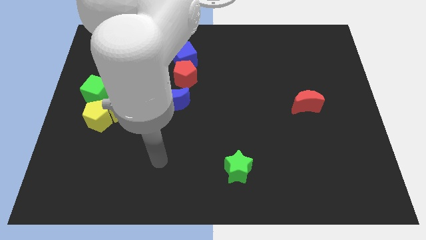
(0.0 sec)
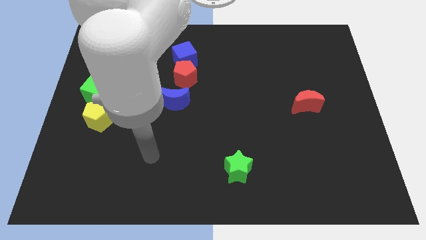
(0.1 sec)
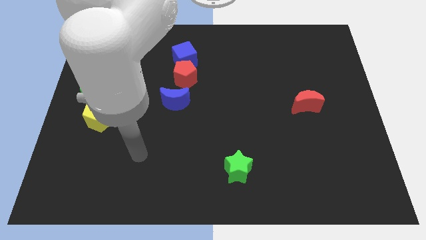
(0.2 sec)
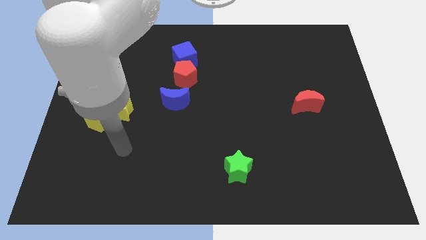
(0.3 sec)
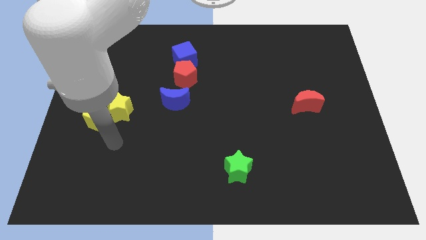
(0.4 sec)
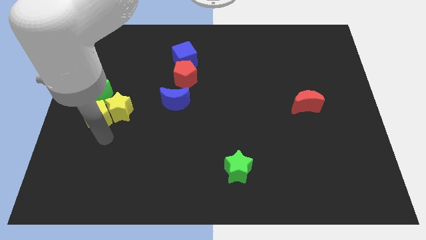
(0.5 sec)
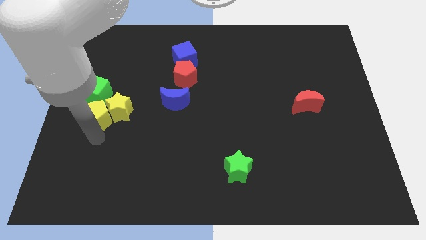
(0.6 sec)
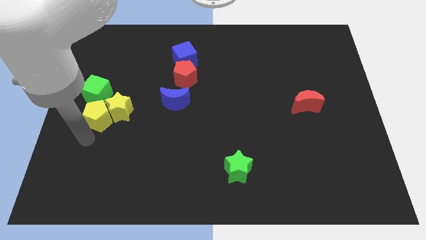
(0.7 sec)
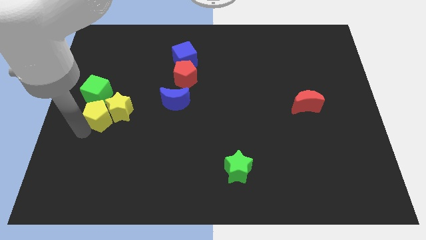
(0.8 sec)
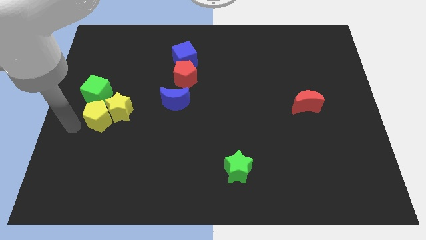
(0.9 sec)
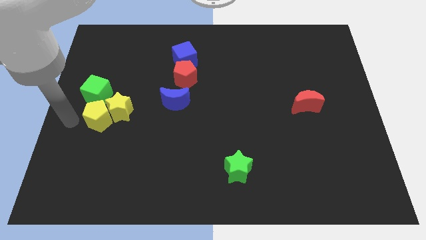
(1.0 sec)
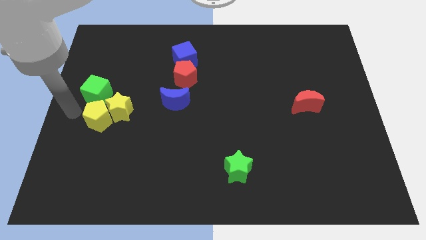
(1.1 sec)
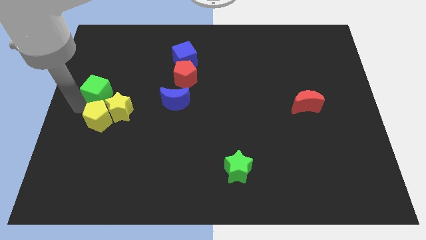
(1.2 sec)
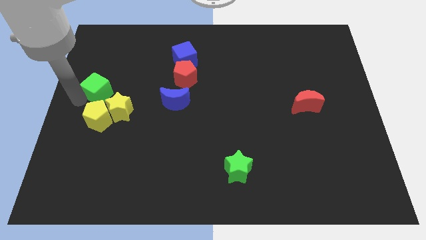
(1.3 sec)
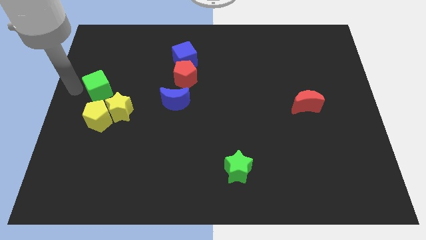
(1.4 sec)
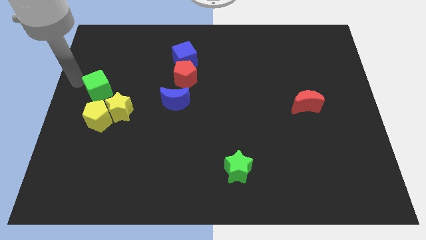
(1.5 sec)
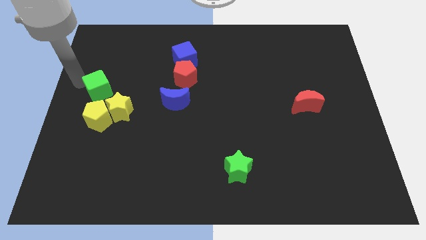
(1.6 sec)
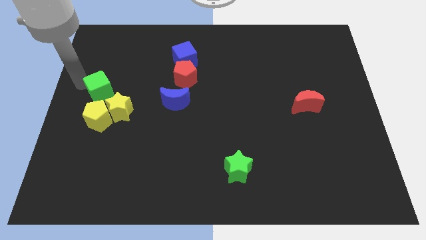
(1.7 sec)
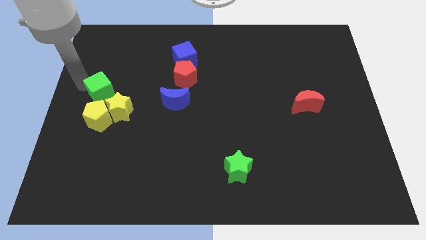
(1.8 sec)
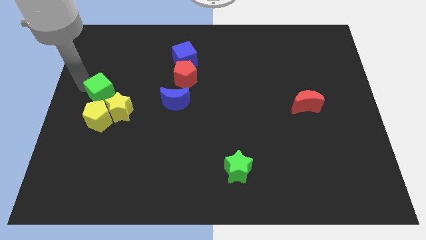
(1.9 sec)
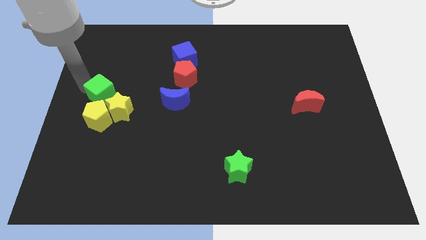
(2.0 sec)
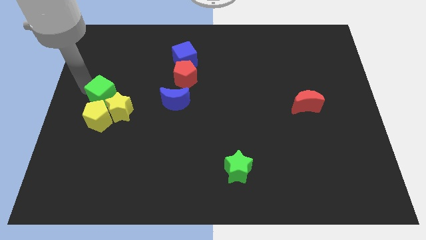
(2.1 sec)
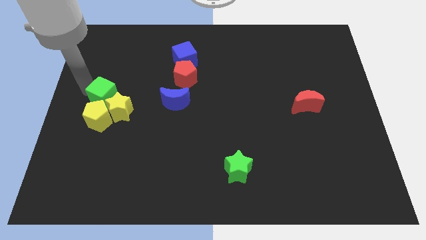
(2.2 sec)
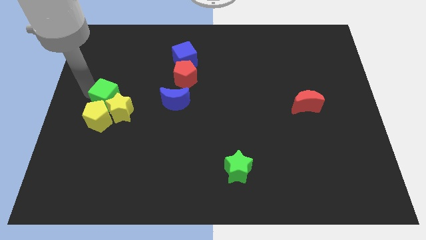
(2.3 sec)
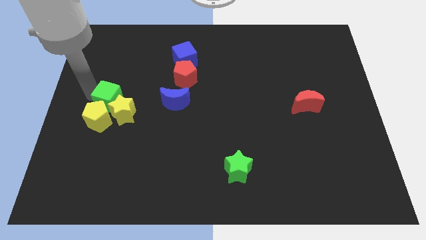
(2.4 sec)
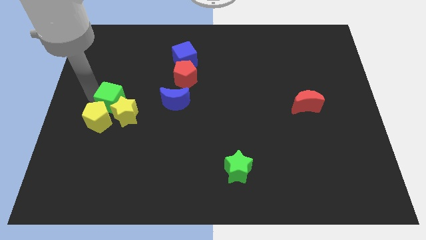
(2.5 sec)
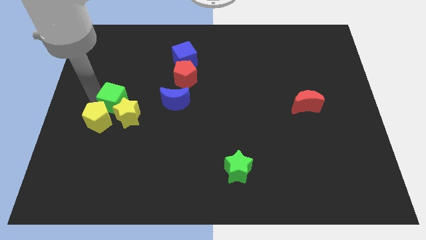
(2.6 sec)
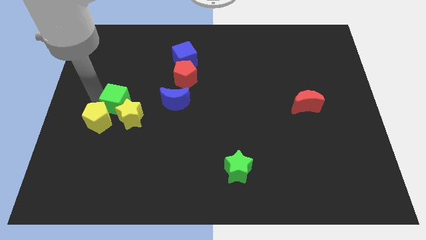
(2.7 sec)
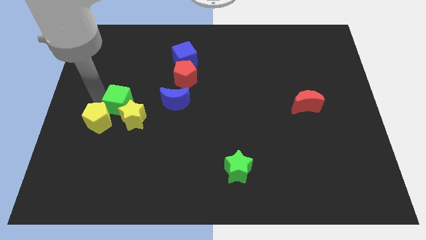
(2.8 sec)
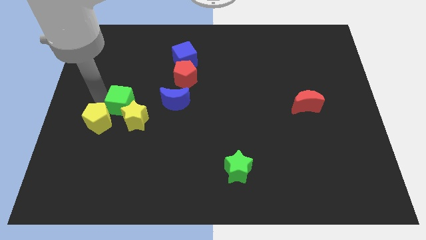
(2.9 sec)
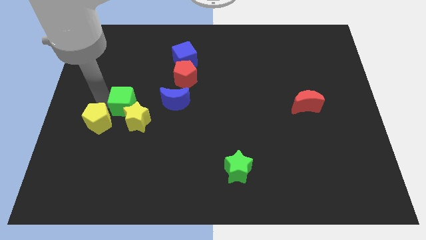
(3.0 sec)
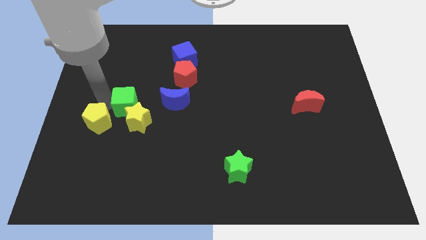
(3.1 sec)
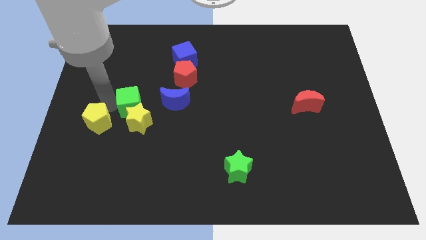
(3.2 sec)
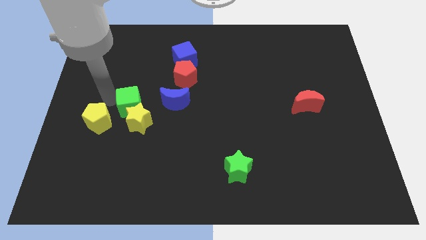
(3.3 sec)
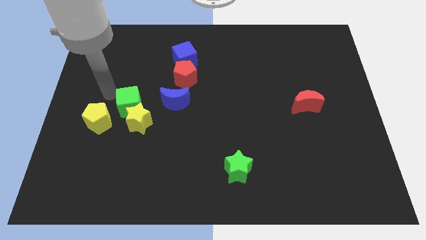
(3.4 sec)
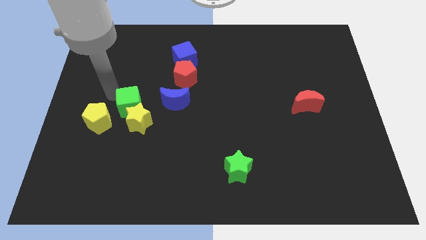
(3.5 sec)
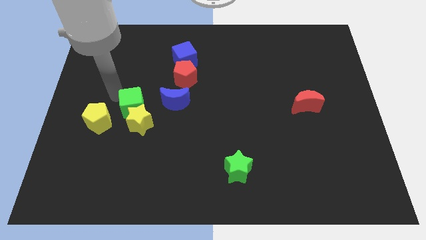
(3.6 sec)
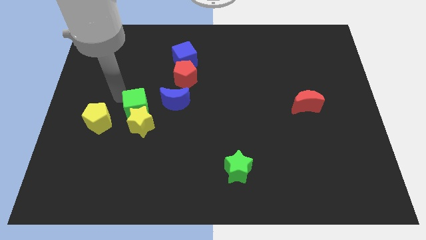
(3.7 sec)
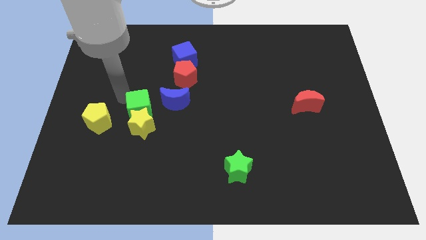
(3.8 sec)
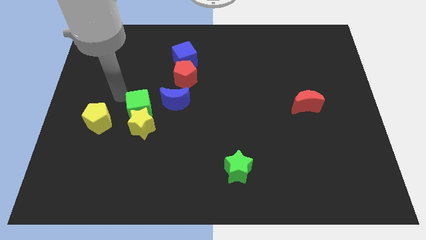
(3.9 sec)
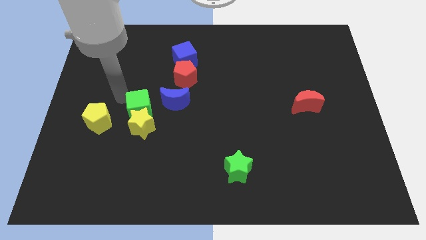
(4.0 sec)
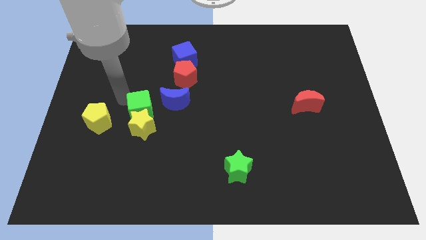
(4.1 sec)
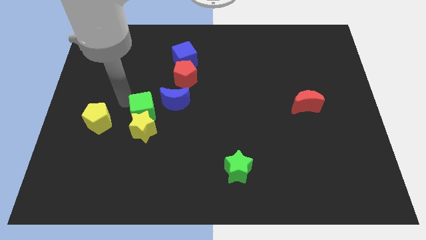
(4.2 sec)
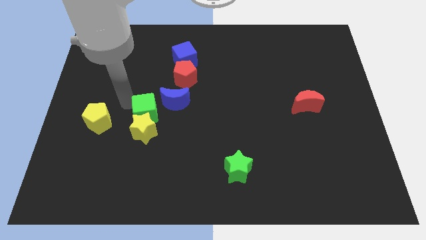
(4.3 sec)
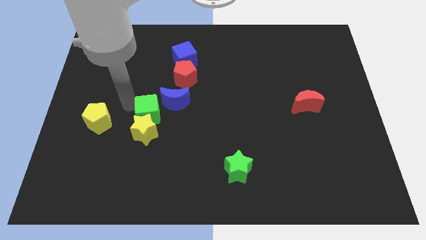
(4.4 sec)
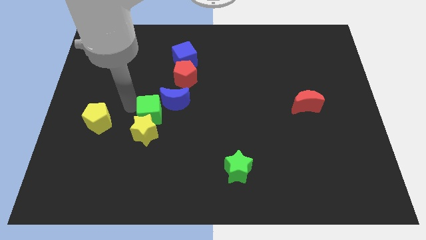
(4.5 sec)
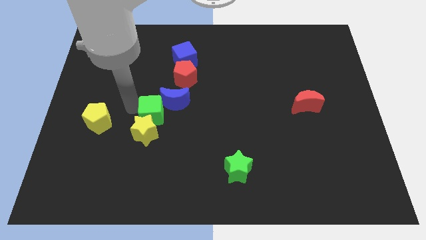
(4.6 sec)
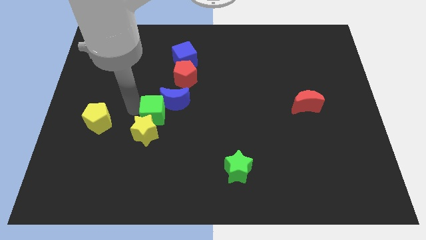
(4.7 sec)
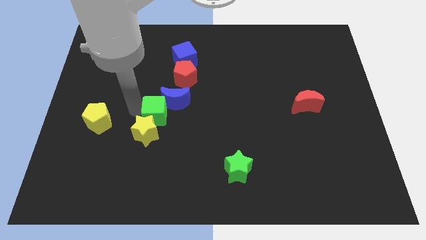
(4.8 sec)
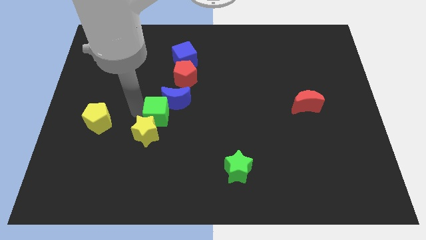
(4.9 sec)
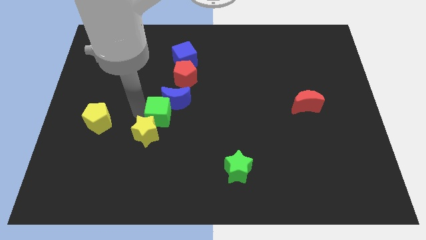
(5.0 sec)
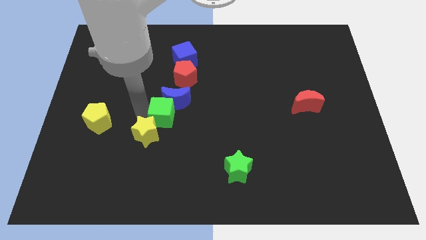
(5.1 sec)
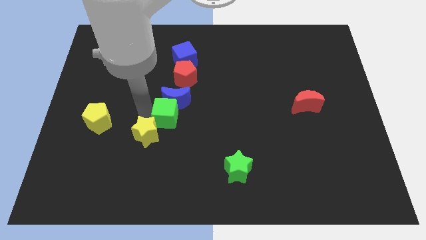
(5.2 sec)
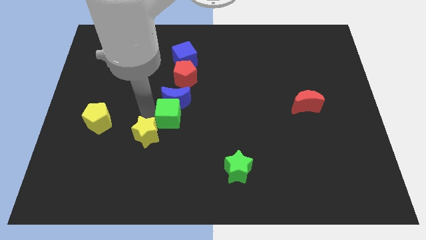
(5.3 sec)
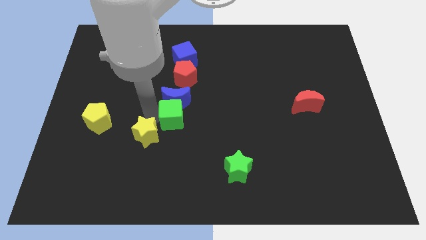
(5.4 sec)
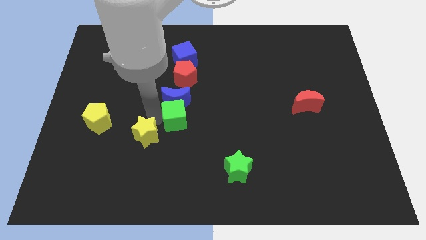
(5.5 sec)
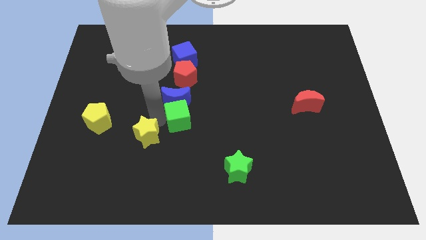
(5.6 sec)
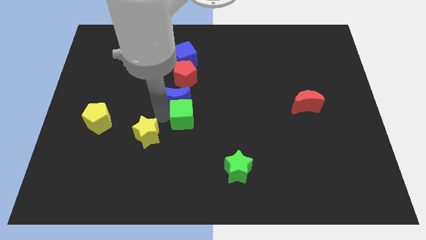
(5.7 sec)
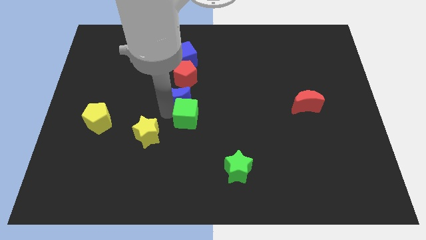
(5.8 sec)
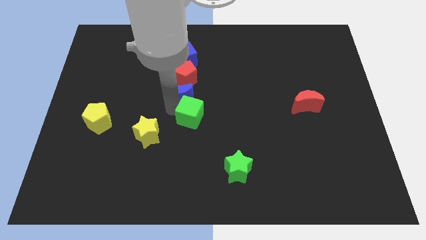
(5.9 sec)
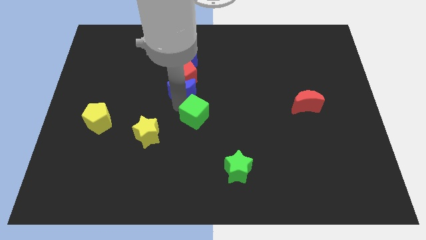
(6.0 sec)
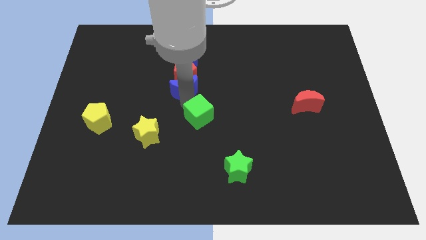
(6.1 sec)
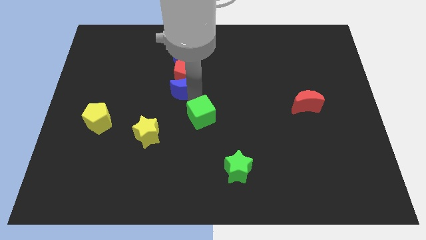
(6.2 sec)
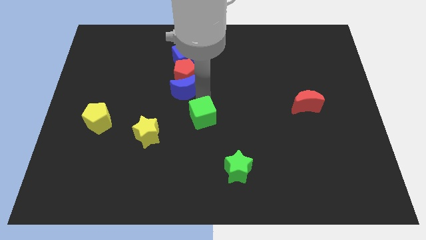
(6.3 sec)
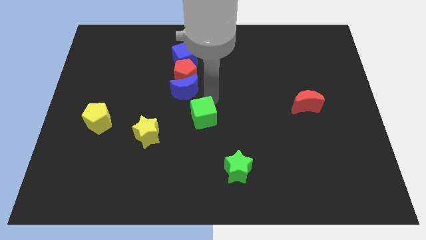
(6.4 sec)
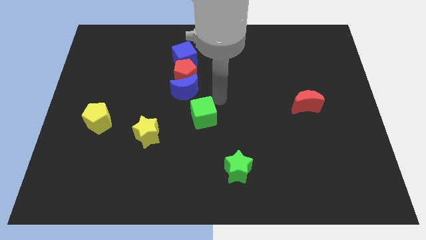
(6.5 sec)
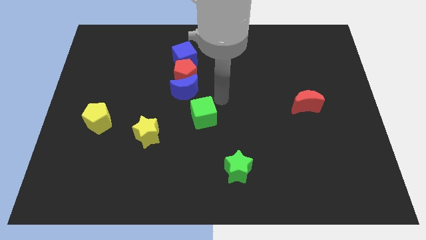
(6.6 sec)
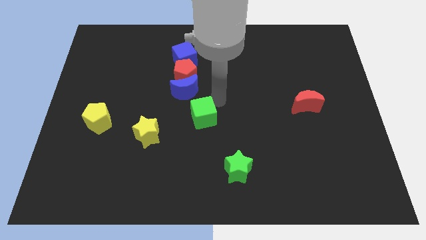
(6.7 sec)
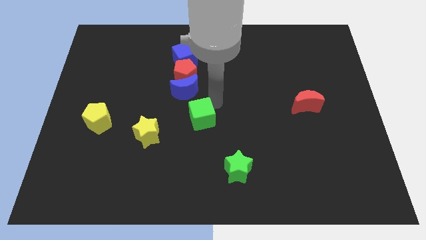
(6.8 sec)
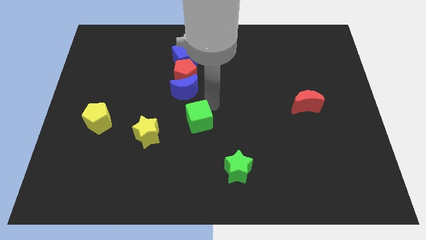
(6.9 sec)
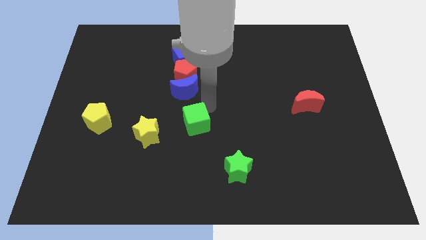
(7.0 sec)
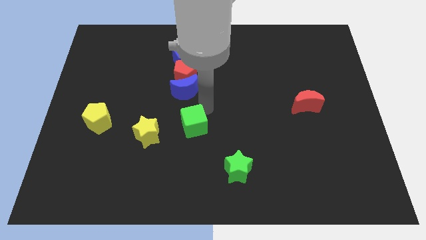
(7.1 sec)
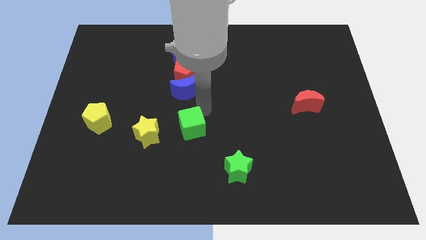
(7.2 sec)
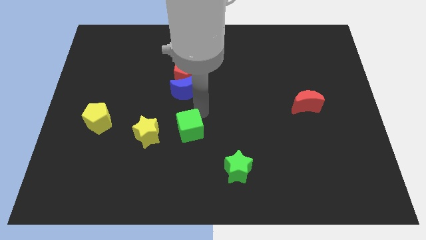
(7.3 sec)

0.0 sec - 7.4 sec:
slide the green cube down and then to the right

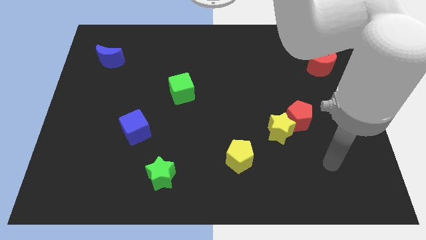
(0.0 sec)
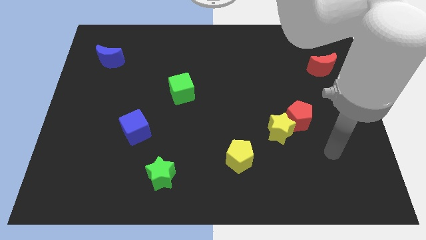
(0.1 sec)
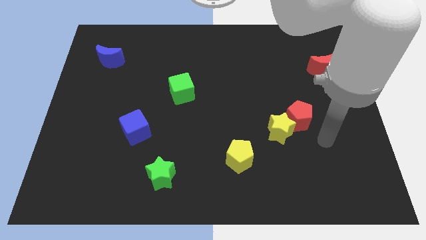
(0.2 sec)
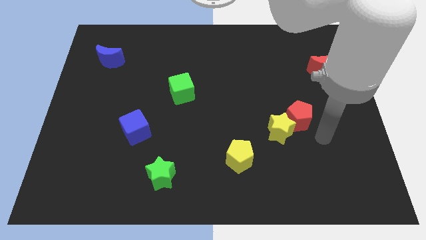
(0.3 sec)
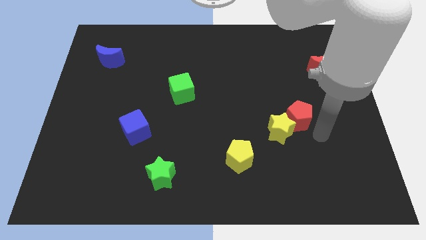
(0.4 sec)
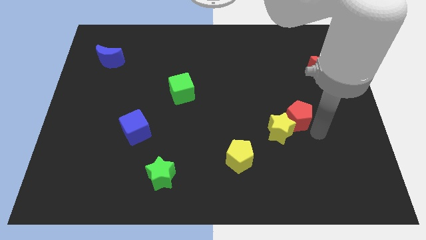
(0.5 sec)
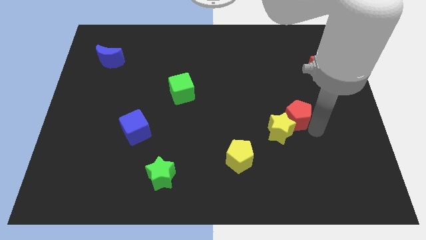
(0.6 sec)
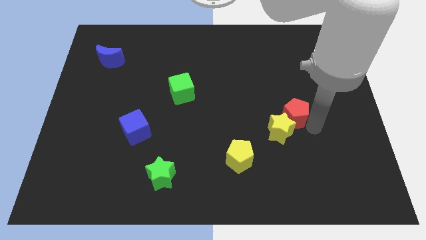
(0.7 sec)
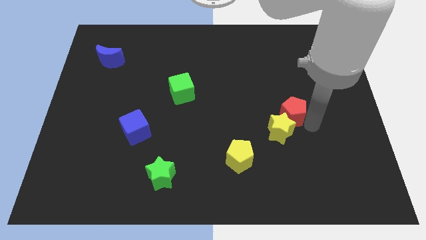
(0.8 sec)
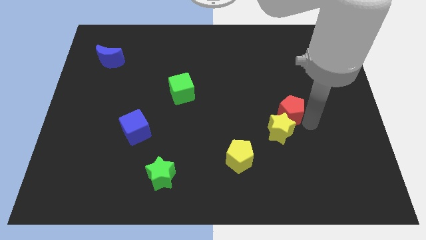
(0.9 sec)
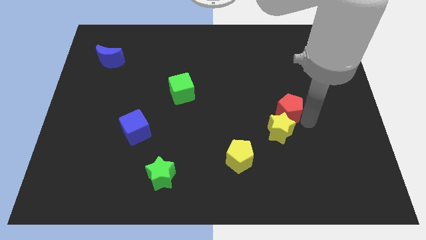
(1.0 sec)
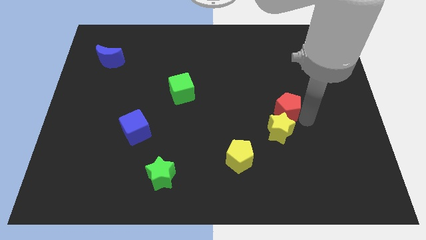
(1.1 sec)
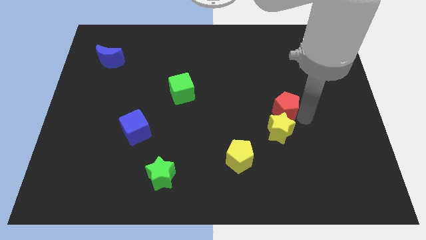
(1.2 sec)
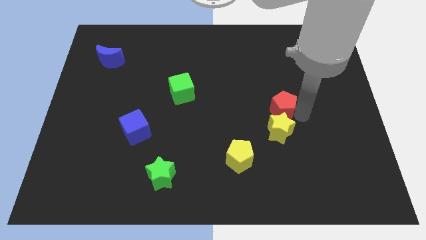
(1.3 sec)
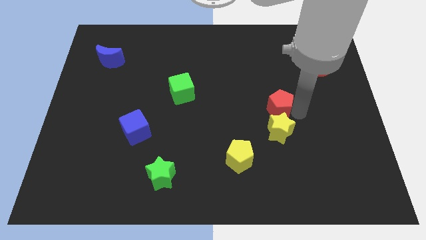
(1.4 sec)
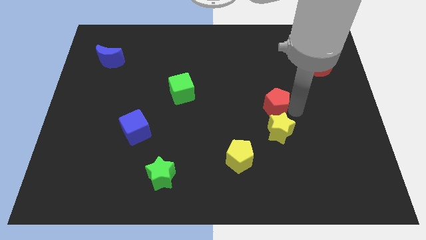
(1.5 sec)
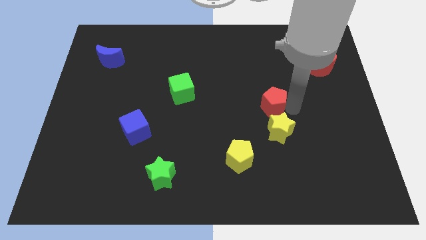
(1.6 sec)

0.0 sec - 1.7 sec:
slide the red pentagon somewhat diagonally up and to the left
